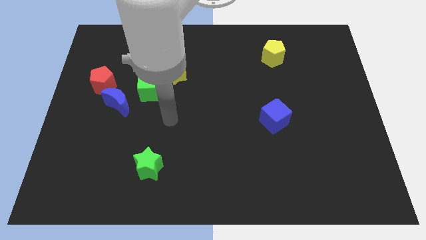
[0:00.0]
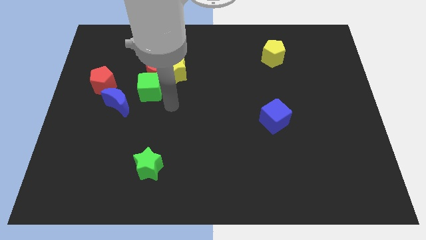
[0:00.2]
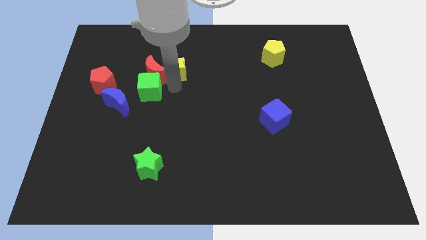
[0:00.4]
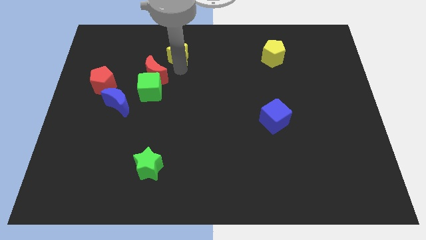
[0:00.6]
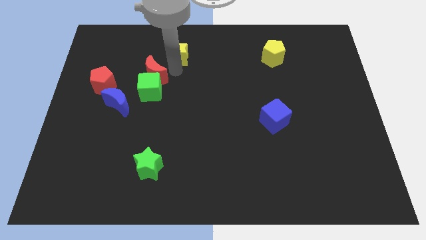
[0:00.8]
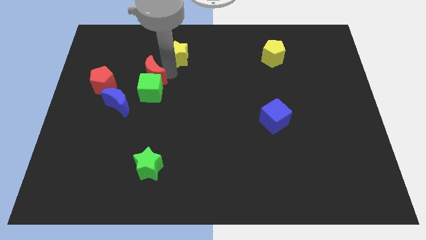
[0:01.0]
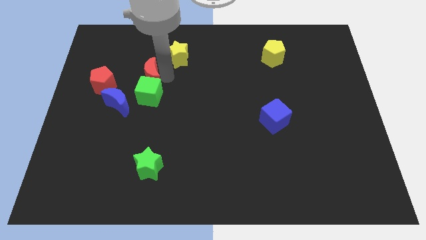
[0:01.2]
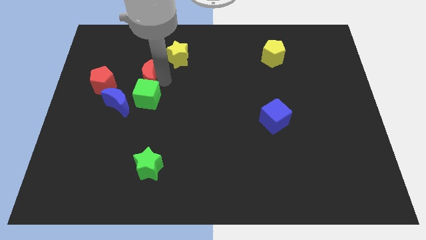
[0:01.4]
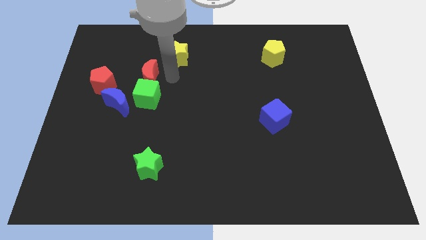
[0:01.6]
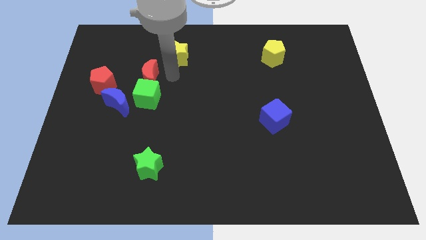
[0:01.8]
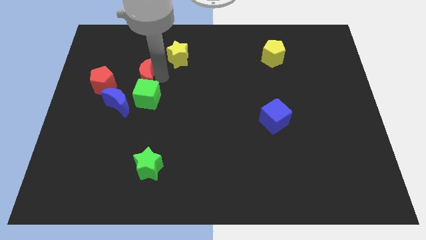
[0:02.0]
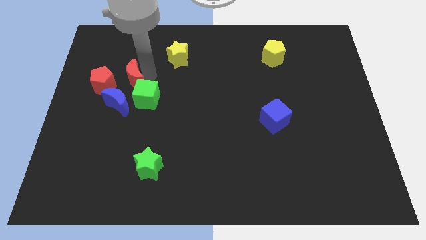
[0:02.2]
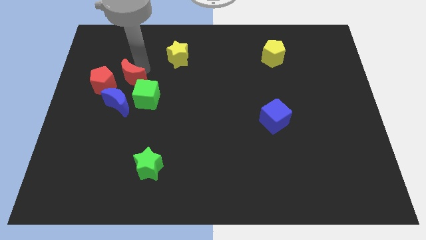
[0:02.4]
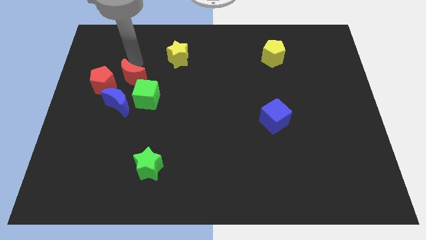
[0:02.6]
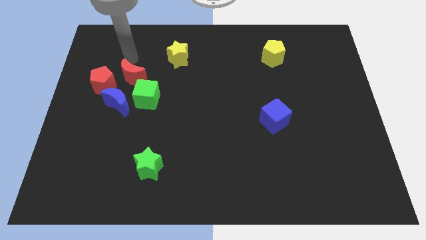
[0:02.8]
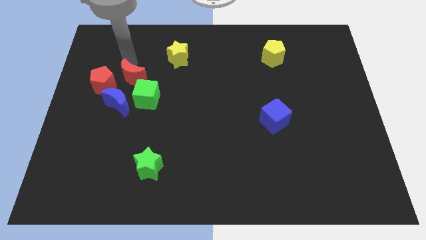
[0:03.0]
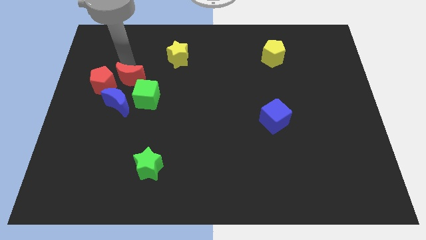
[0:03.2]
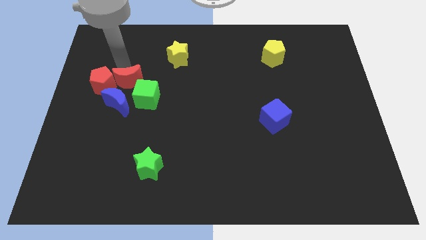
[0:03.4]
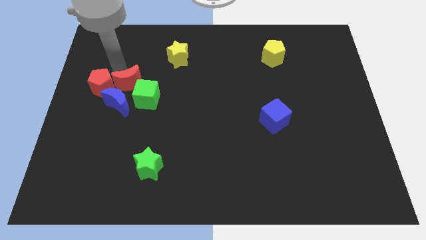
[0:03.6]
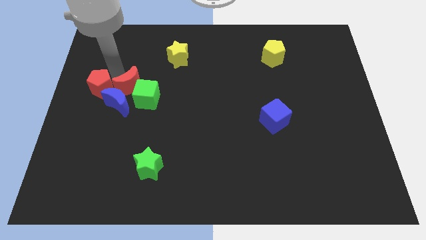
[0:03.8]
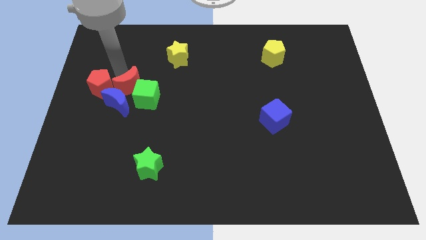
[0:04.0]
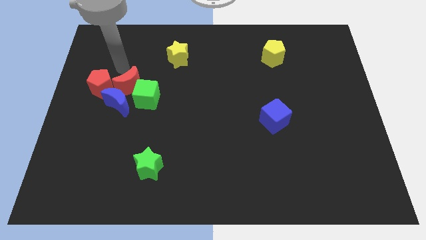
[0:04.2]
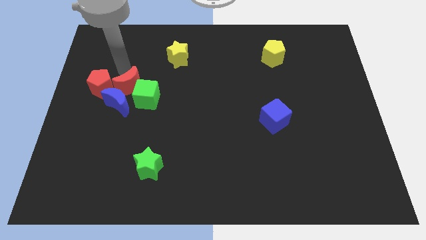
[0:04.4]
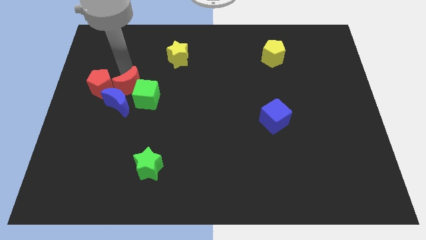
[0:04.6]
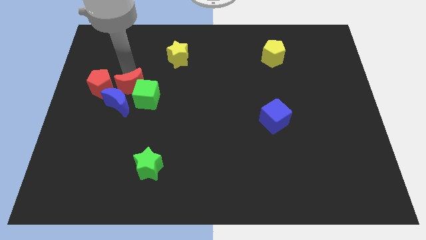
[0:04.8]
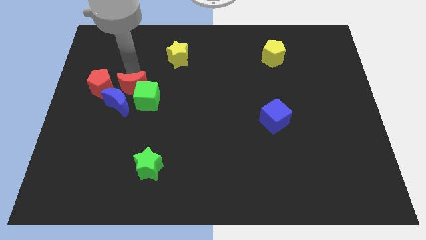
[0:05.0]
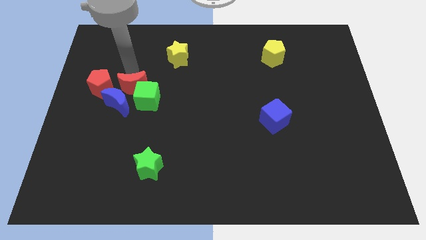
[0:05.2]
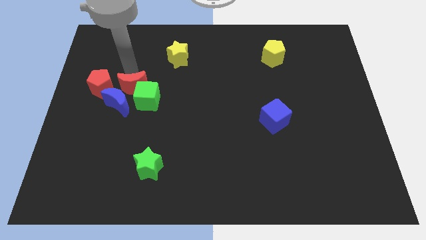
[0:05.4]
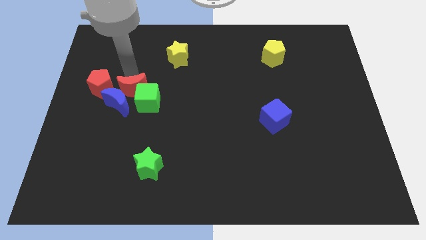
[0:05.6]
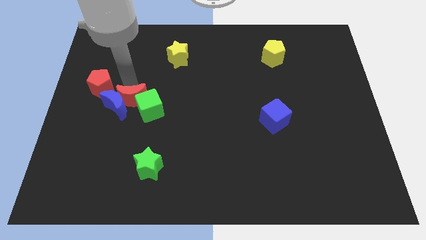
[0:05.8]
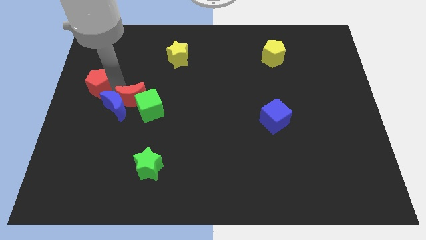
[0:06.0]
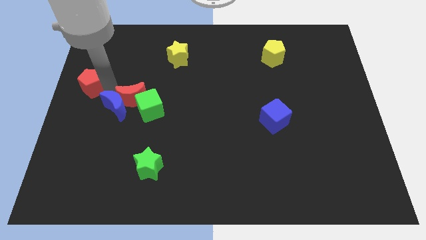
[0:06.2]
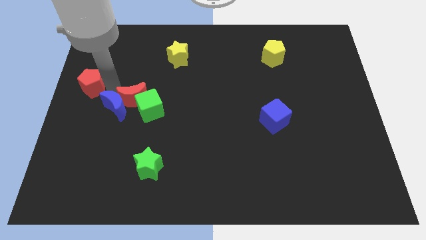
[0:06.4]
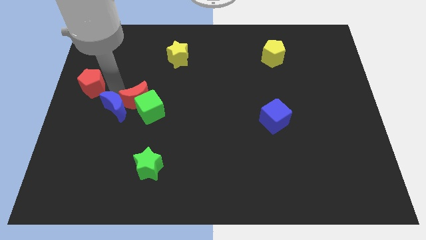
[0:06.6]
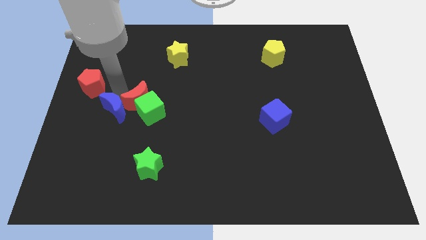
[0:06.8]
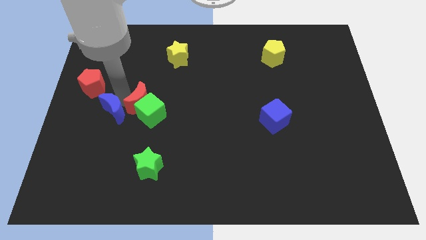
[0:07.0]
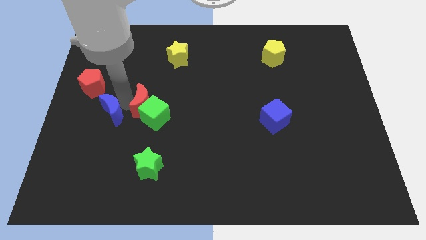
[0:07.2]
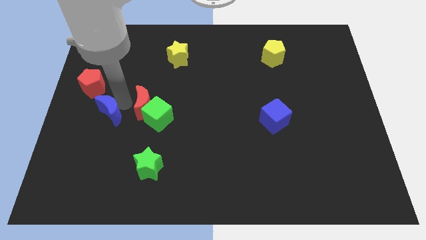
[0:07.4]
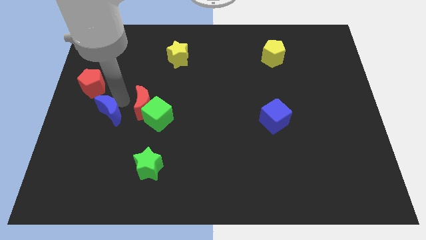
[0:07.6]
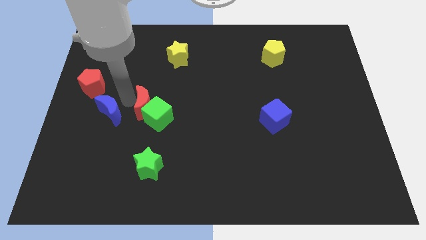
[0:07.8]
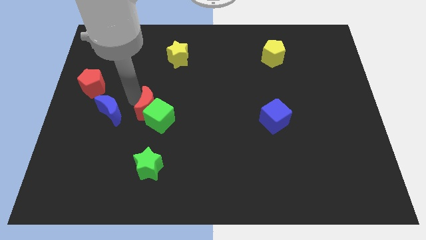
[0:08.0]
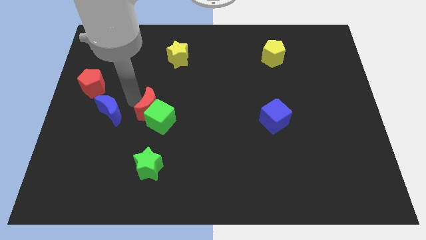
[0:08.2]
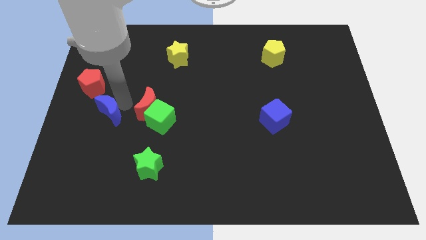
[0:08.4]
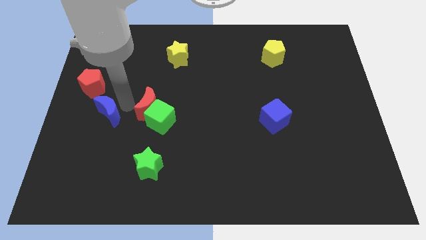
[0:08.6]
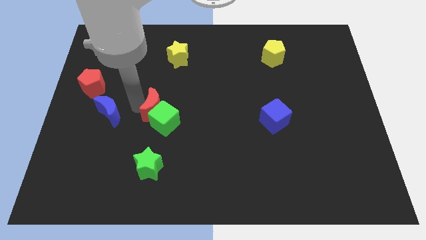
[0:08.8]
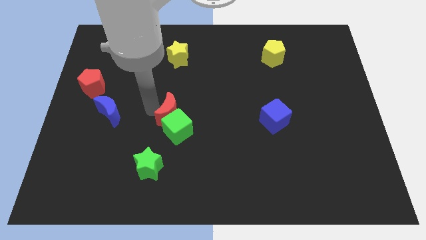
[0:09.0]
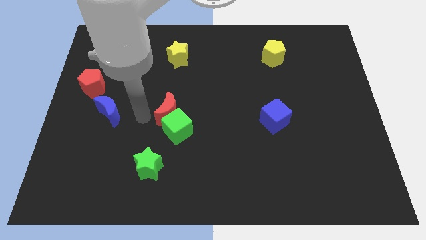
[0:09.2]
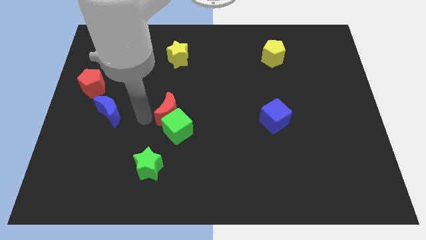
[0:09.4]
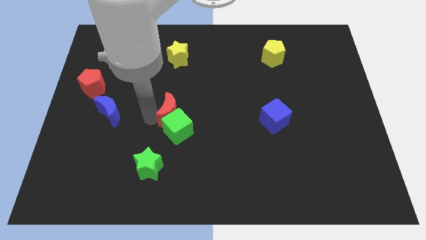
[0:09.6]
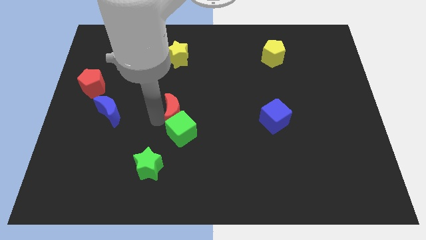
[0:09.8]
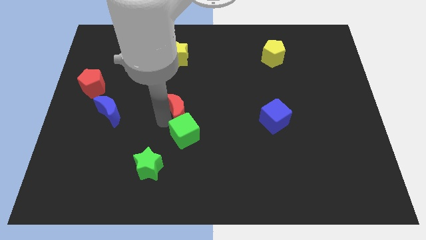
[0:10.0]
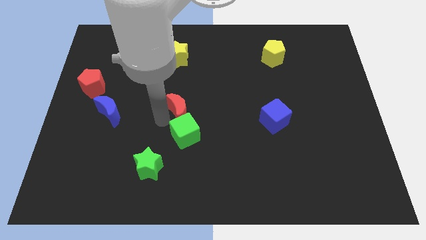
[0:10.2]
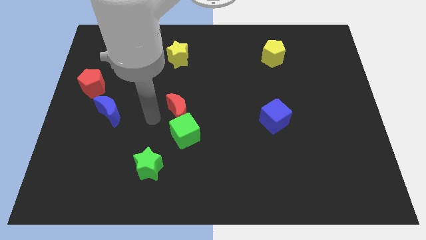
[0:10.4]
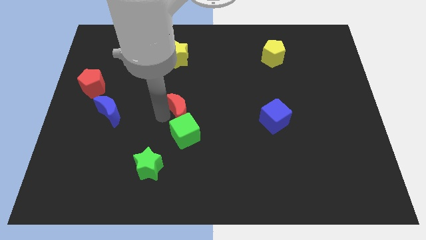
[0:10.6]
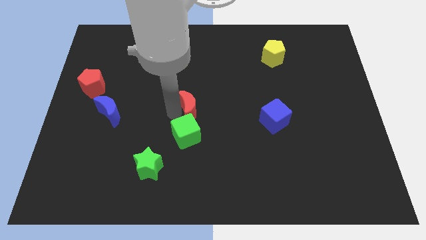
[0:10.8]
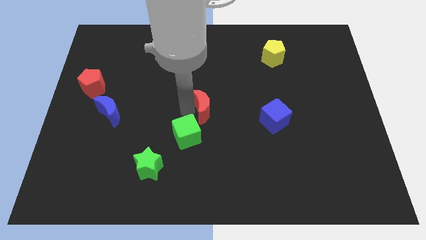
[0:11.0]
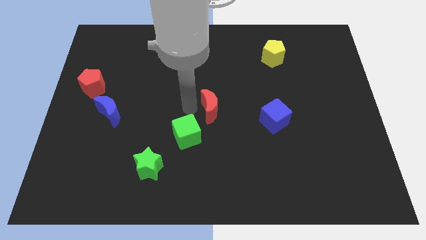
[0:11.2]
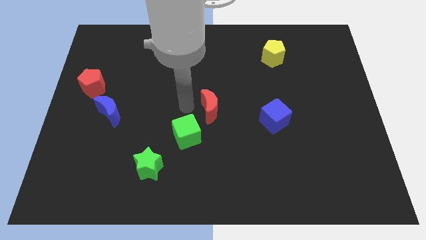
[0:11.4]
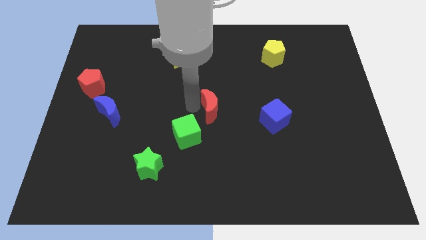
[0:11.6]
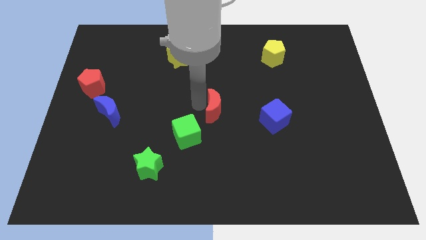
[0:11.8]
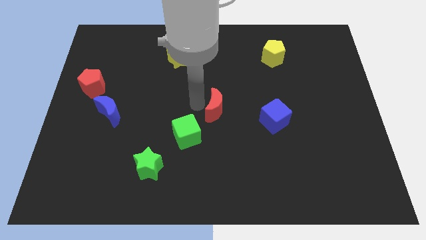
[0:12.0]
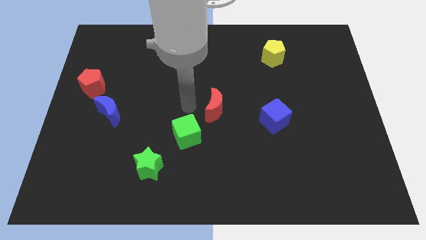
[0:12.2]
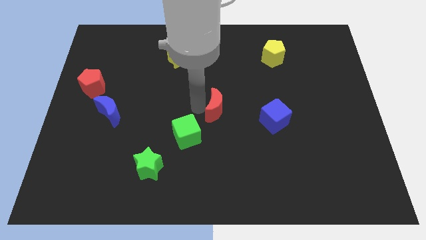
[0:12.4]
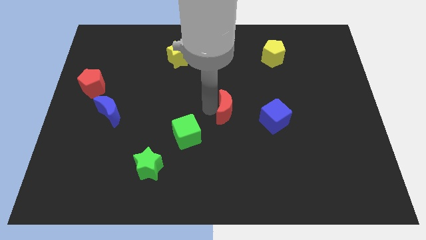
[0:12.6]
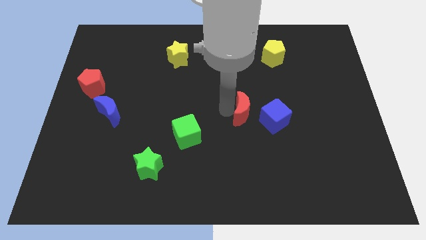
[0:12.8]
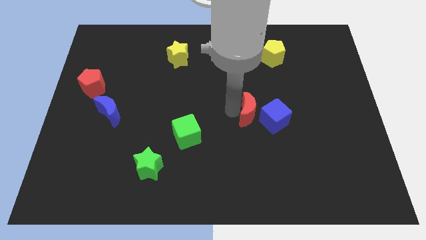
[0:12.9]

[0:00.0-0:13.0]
move the red moon towards the blue cube

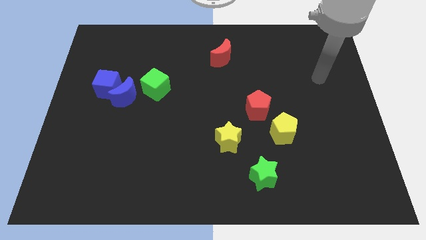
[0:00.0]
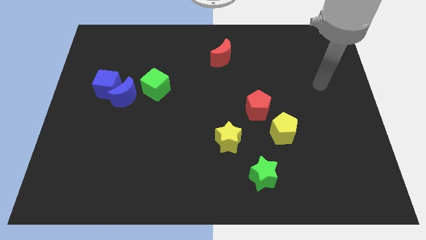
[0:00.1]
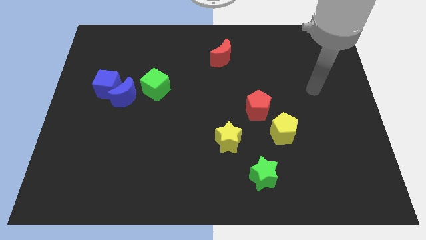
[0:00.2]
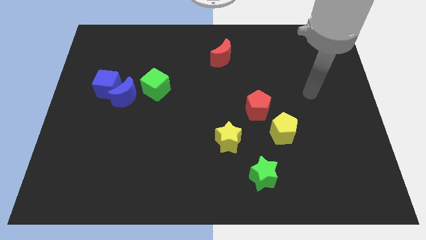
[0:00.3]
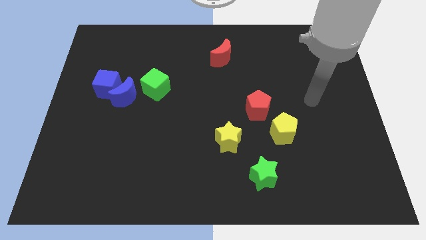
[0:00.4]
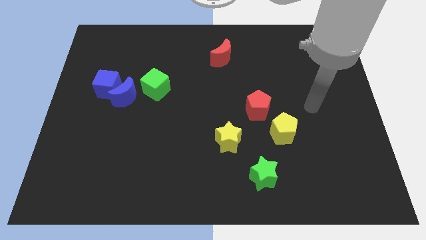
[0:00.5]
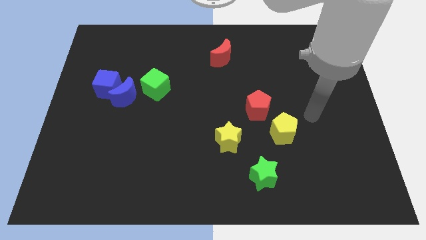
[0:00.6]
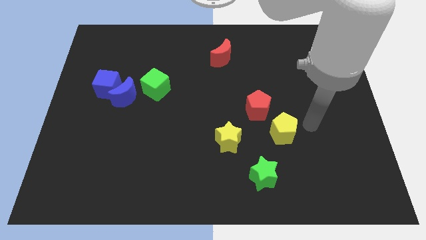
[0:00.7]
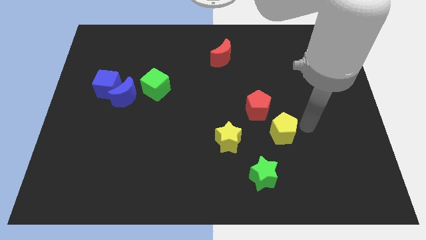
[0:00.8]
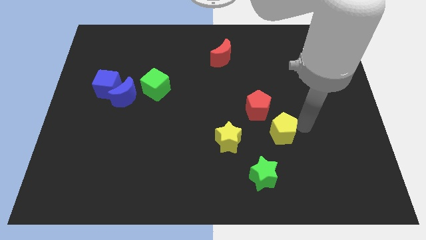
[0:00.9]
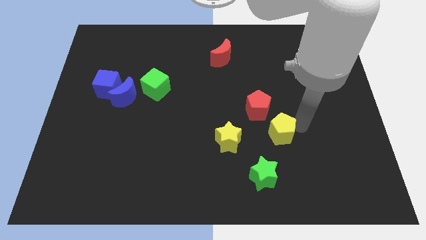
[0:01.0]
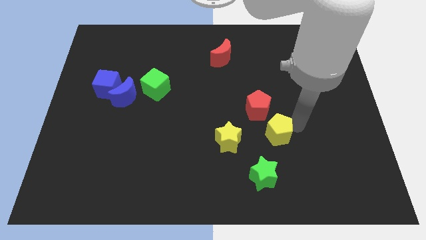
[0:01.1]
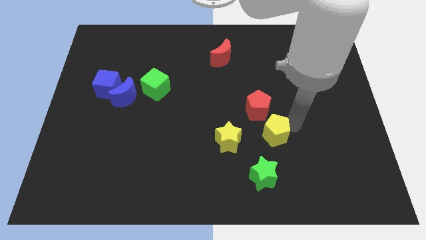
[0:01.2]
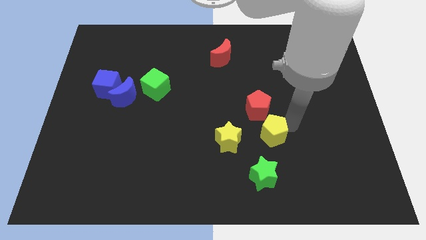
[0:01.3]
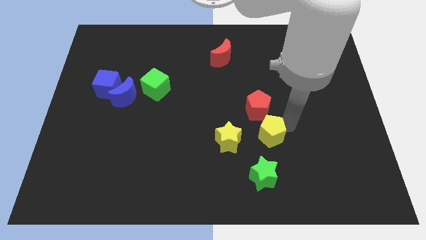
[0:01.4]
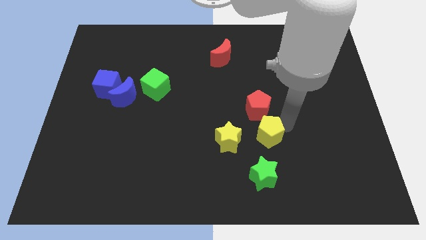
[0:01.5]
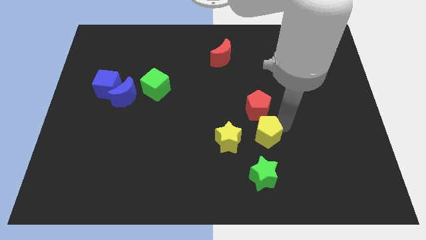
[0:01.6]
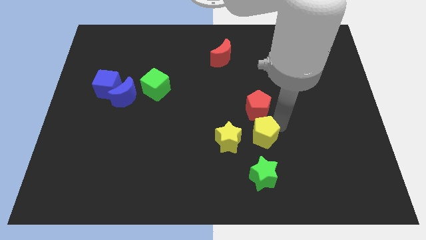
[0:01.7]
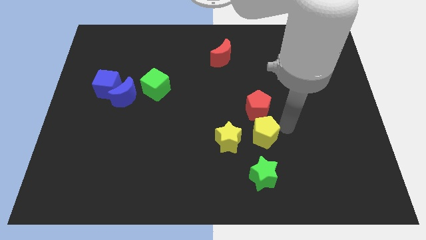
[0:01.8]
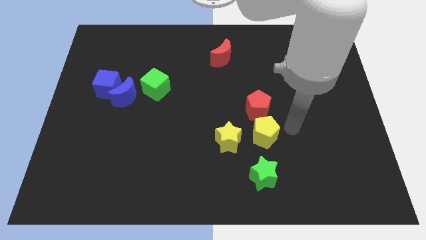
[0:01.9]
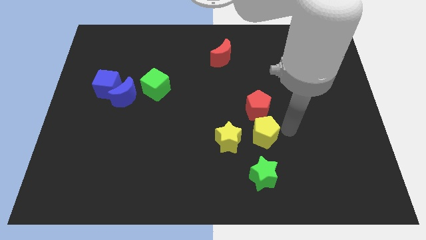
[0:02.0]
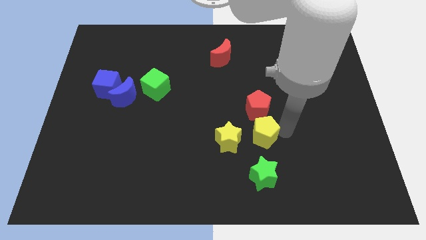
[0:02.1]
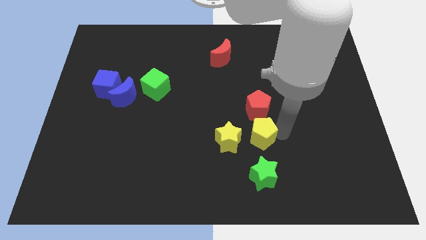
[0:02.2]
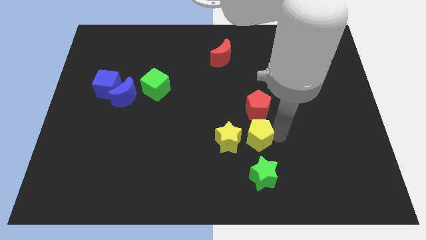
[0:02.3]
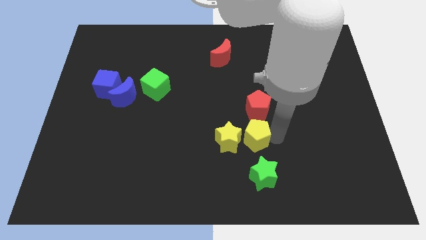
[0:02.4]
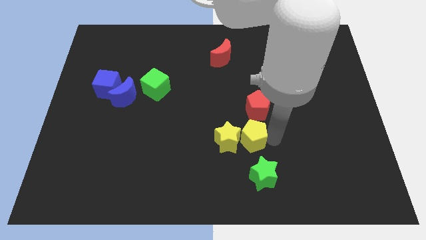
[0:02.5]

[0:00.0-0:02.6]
slide the yellow pentagon next to the yellow star
